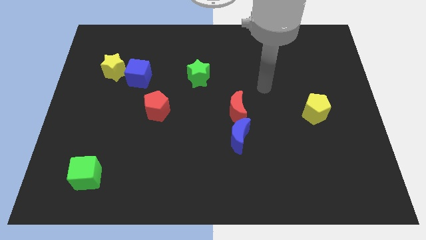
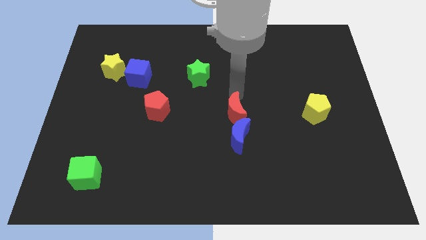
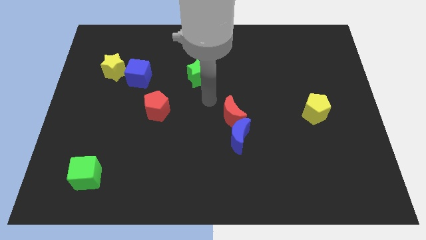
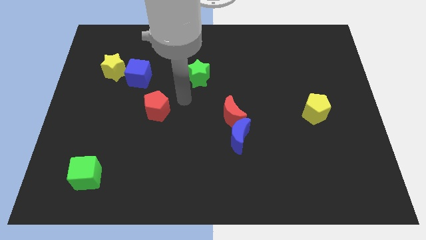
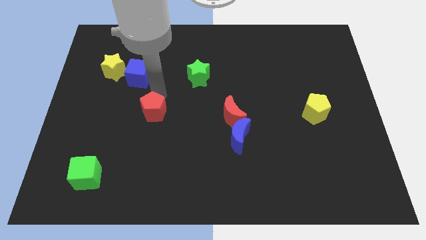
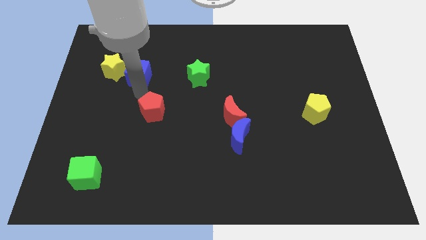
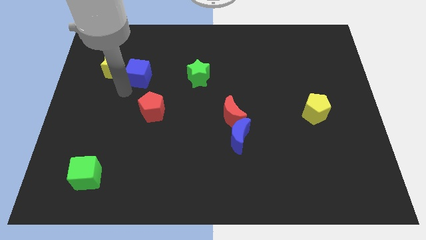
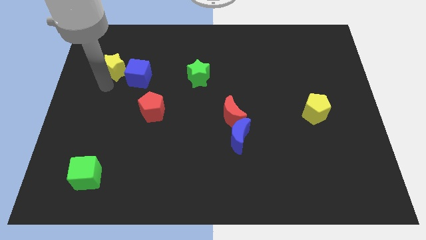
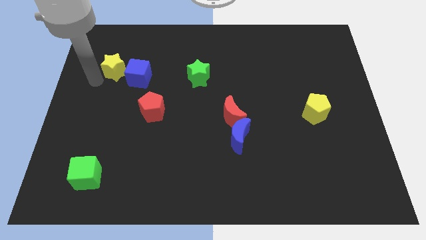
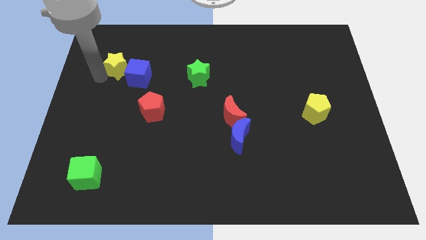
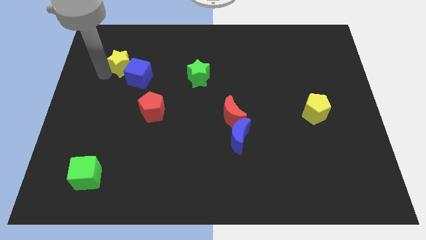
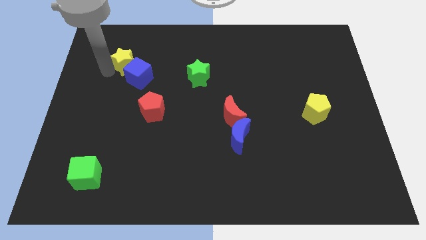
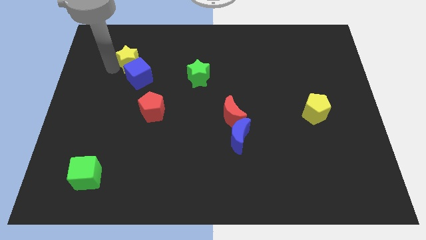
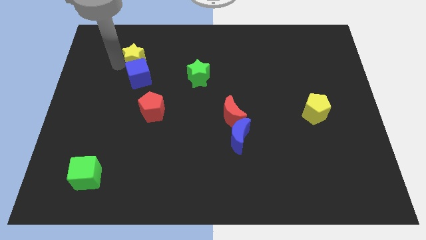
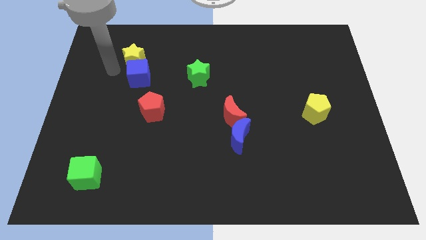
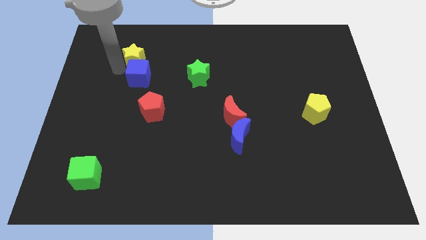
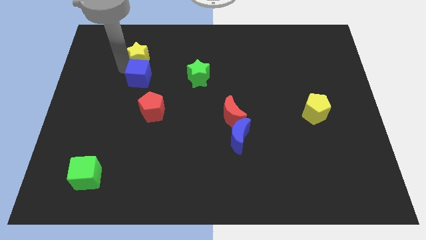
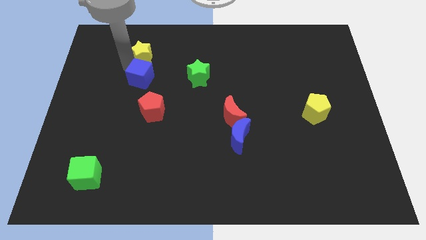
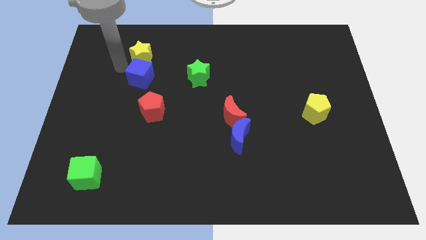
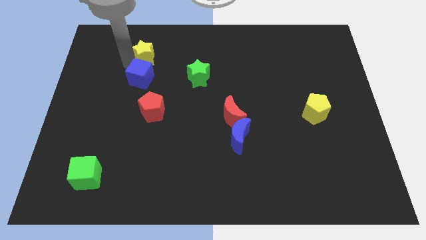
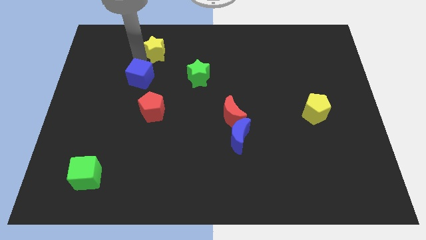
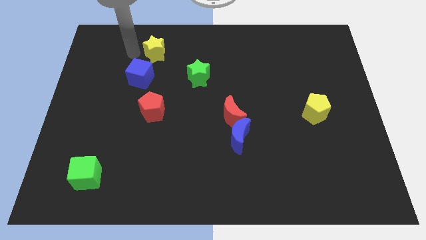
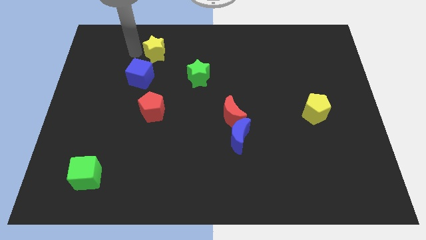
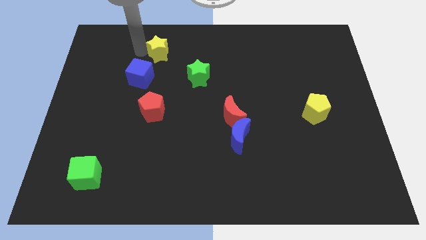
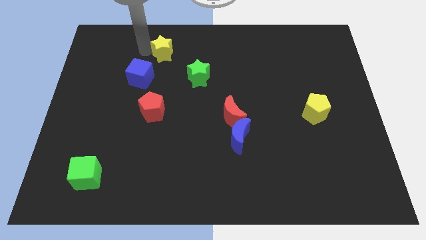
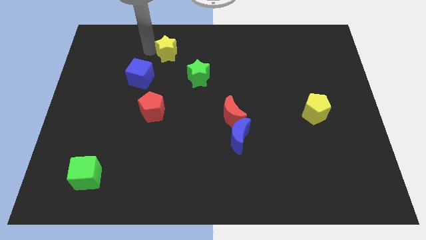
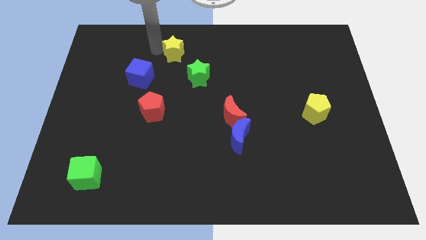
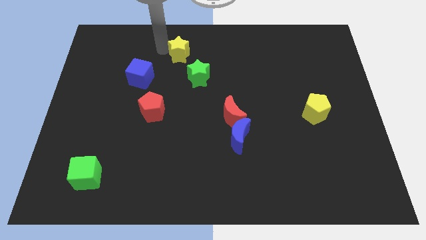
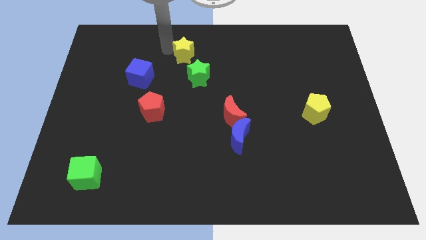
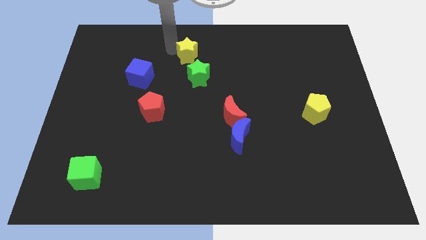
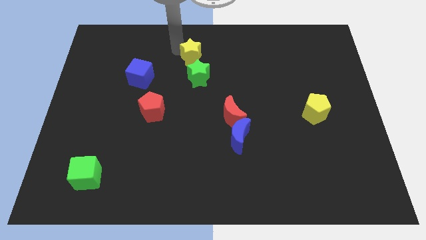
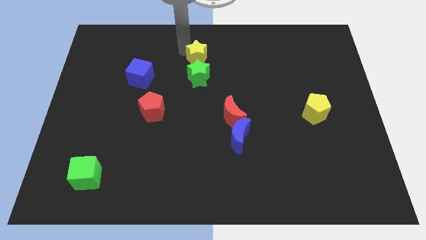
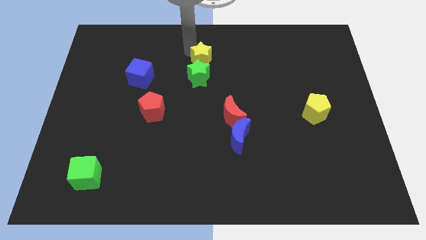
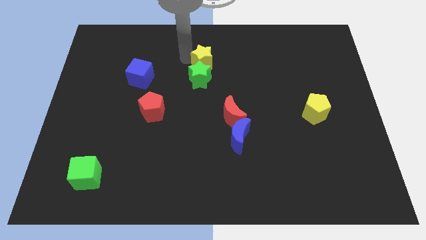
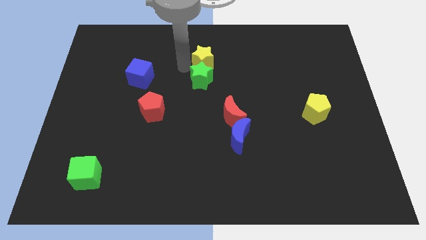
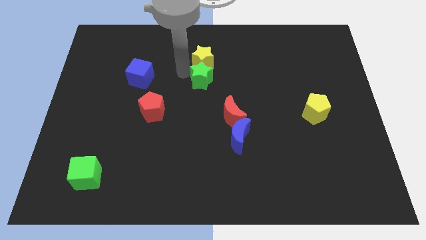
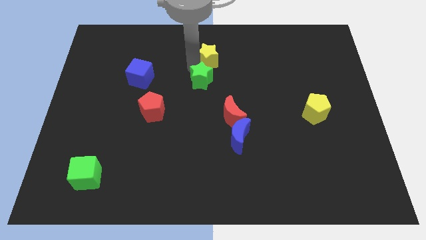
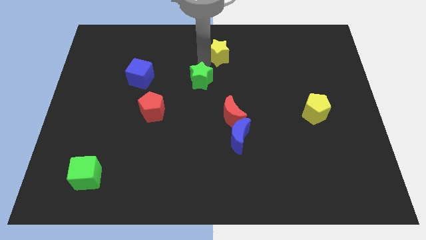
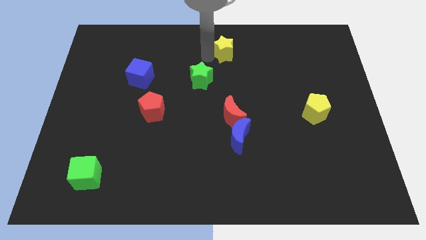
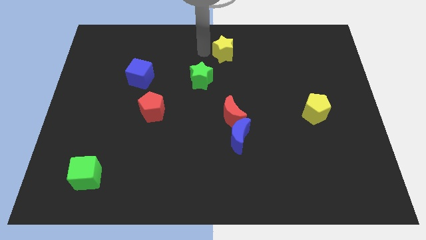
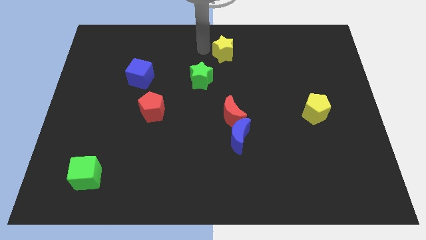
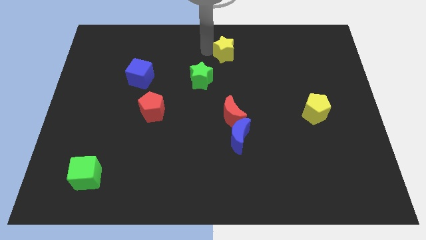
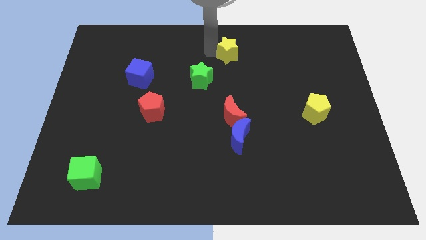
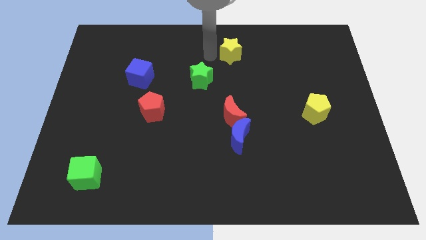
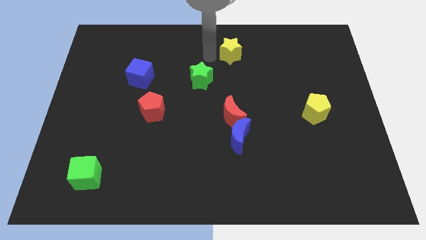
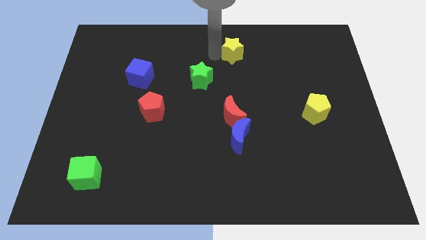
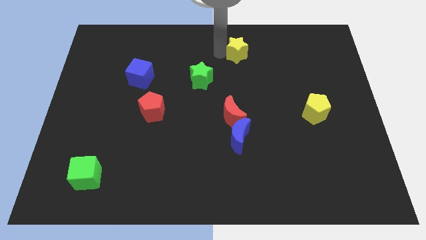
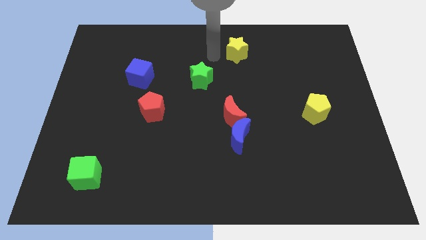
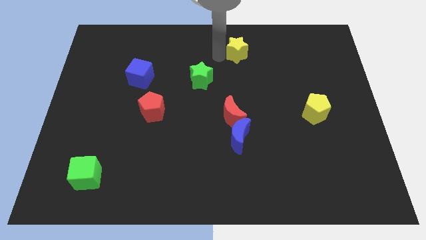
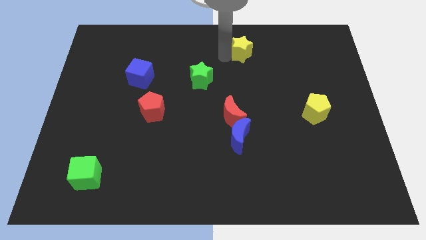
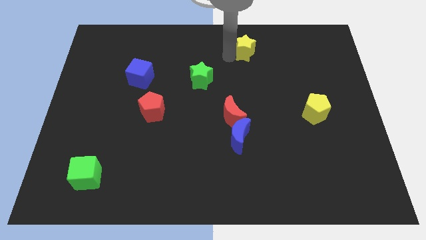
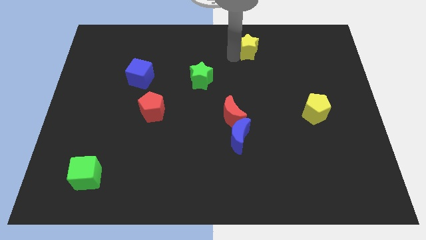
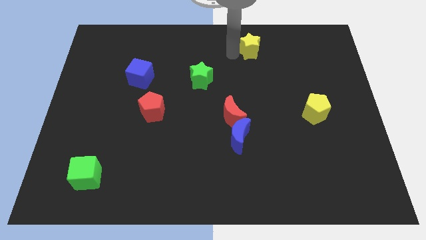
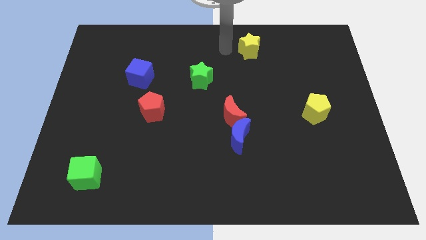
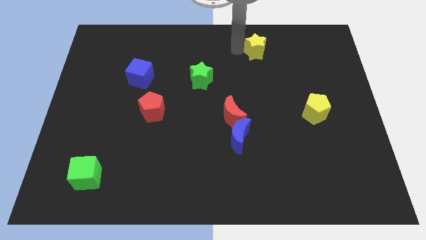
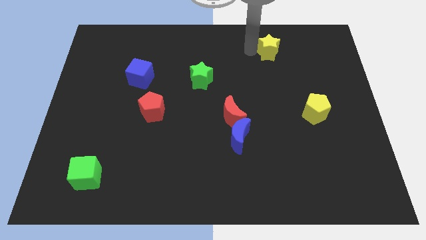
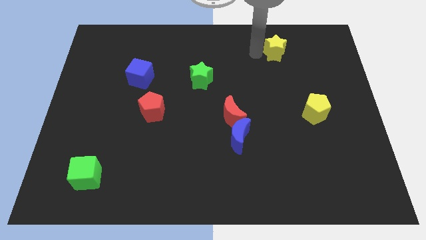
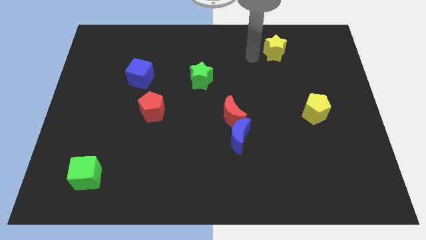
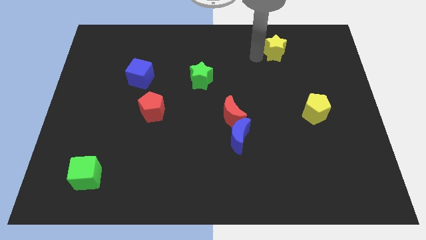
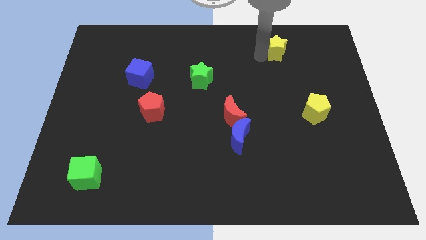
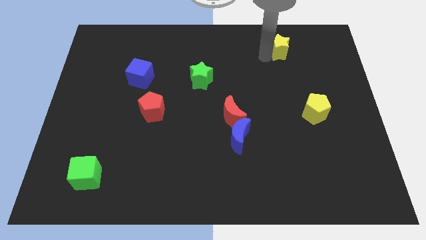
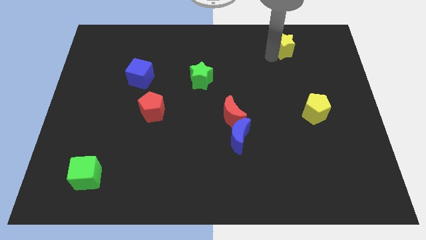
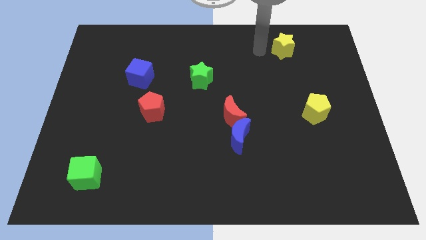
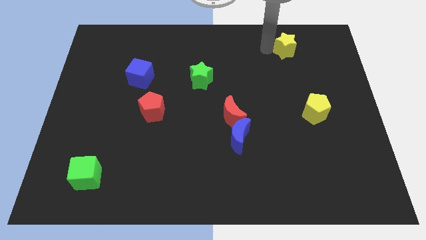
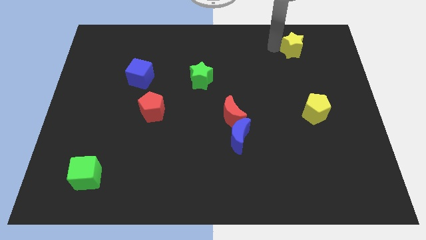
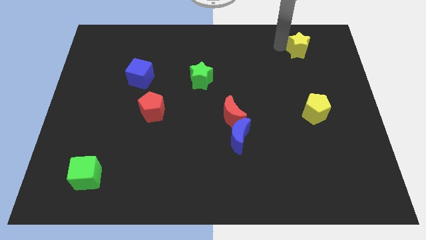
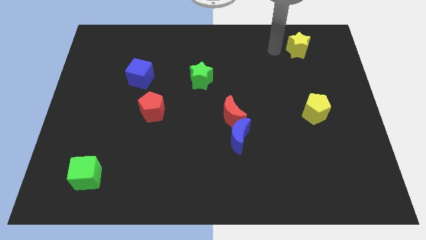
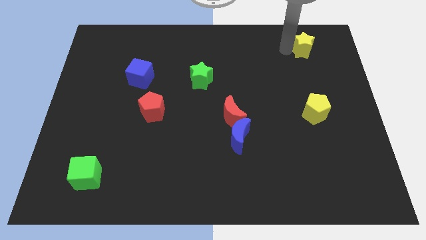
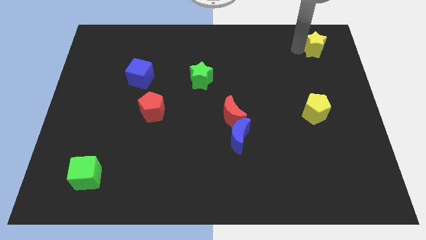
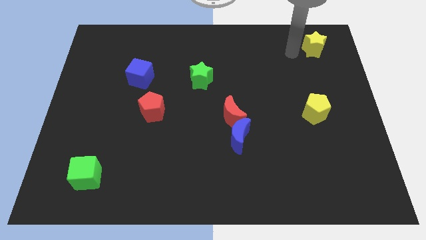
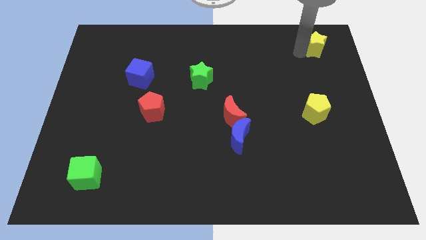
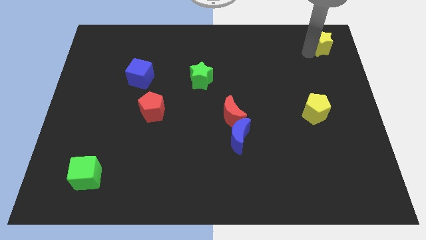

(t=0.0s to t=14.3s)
put the yellow star to the top right of the board
